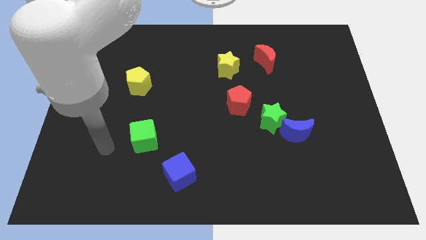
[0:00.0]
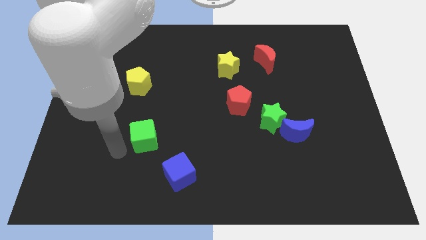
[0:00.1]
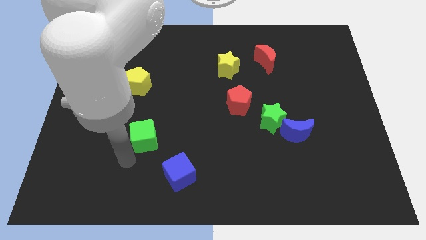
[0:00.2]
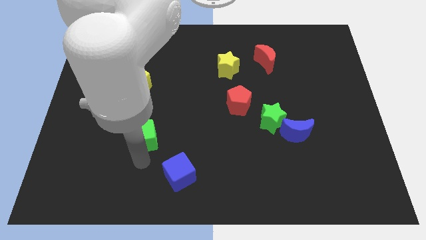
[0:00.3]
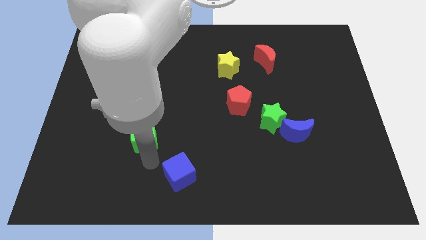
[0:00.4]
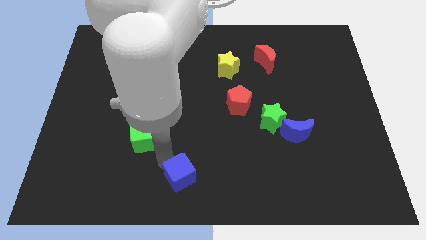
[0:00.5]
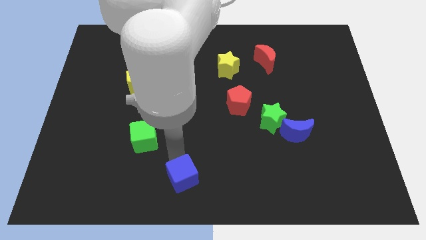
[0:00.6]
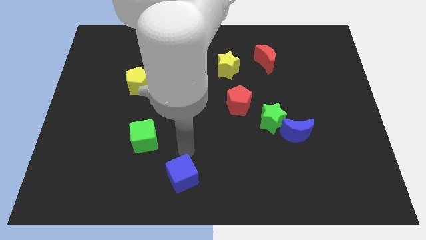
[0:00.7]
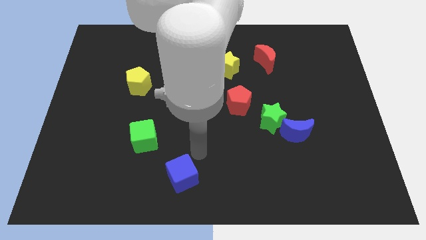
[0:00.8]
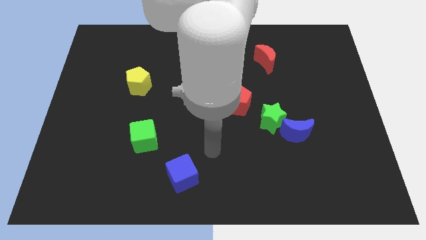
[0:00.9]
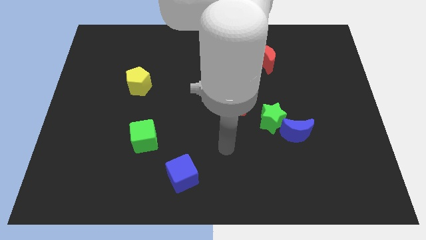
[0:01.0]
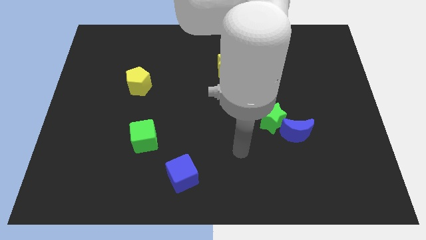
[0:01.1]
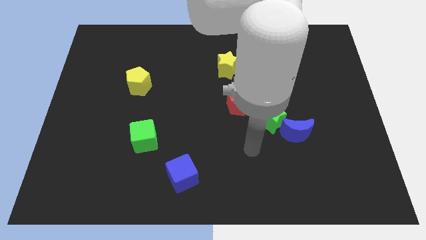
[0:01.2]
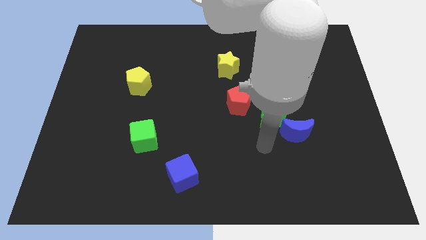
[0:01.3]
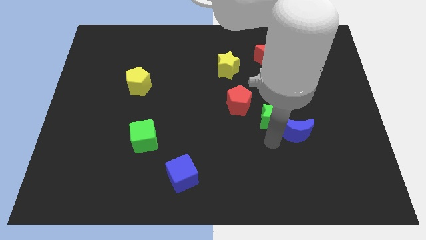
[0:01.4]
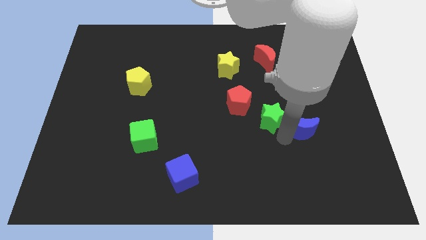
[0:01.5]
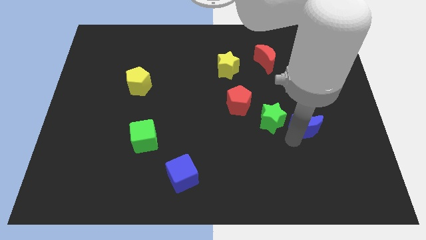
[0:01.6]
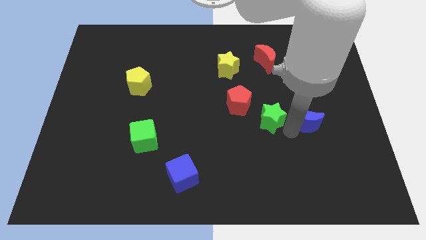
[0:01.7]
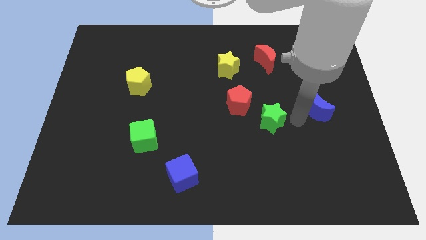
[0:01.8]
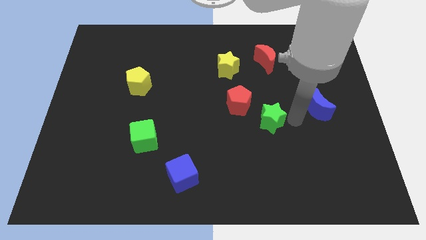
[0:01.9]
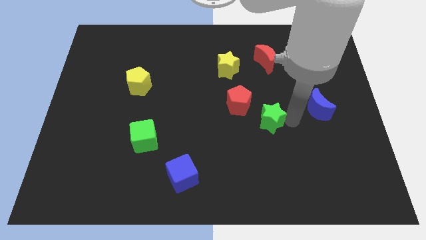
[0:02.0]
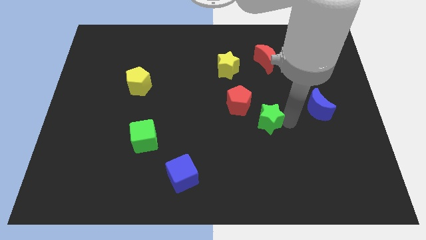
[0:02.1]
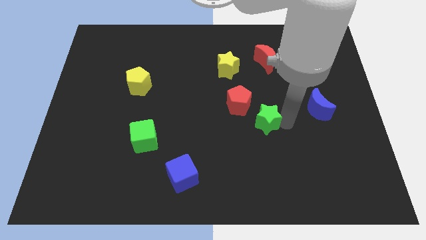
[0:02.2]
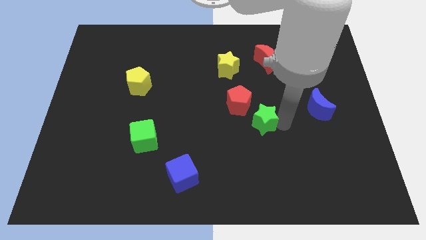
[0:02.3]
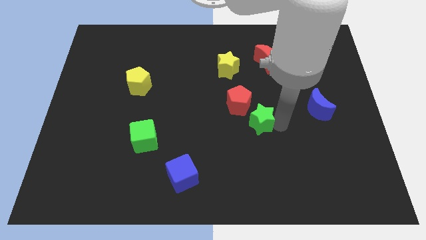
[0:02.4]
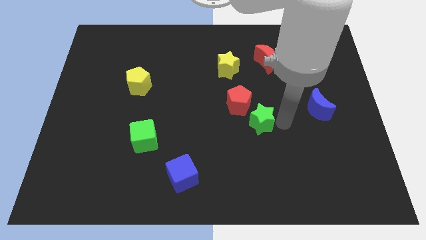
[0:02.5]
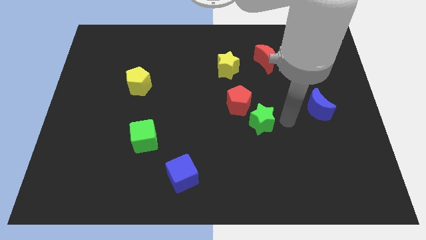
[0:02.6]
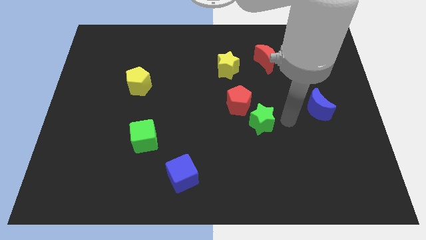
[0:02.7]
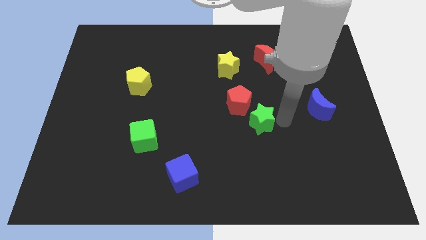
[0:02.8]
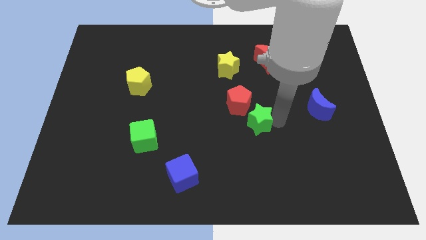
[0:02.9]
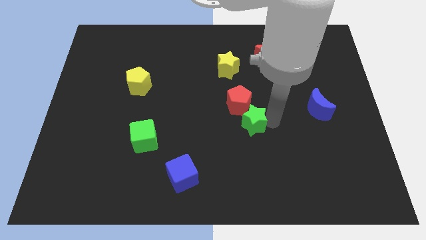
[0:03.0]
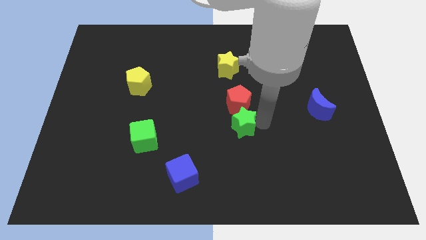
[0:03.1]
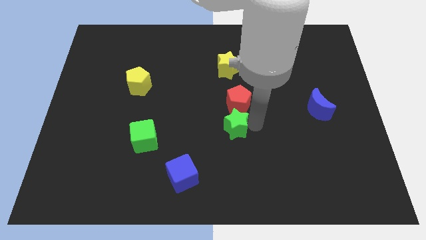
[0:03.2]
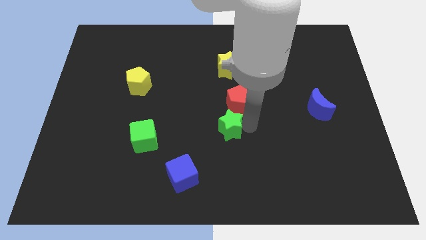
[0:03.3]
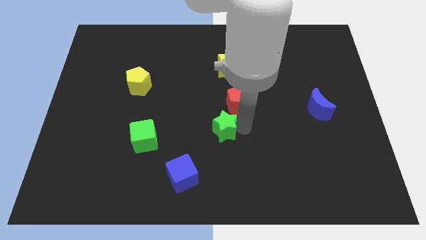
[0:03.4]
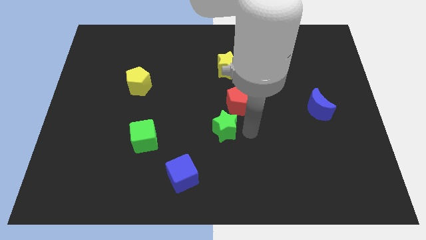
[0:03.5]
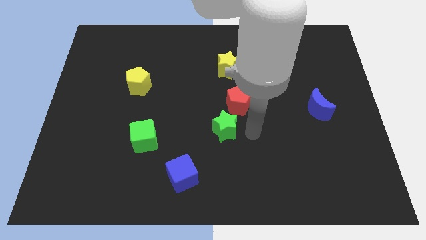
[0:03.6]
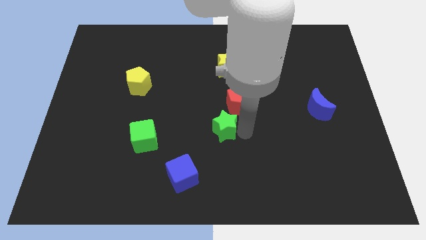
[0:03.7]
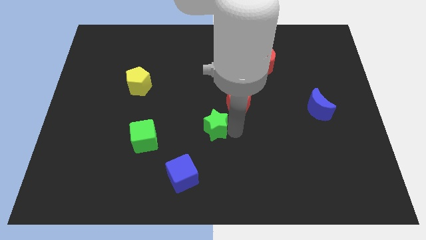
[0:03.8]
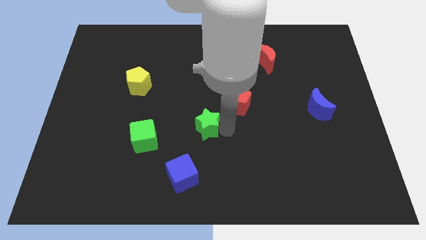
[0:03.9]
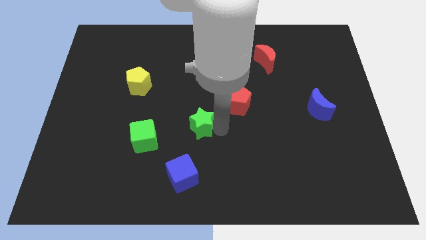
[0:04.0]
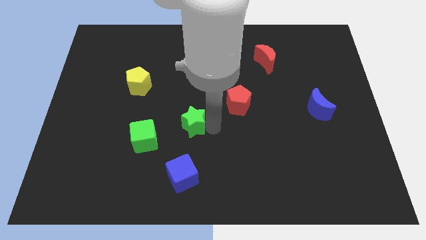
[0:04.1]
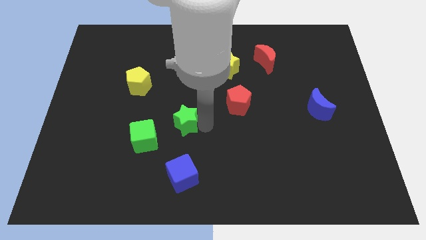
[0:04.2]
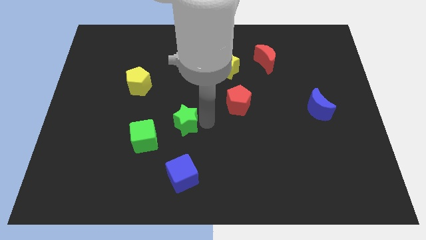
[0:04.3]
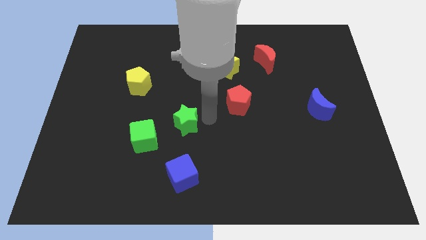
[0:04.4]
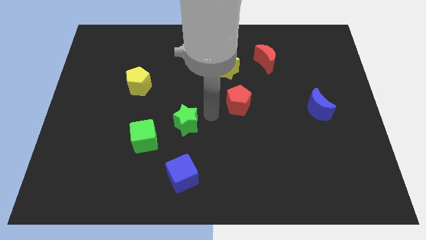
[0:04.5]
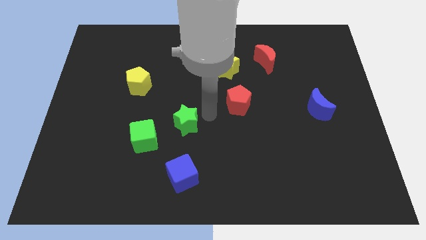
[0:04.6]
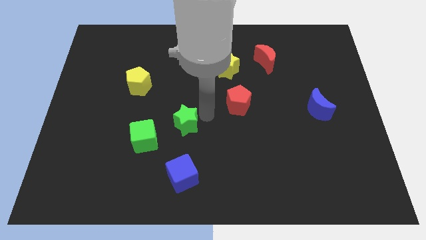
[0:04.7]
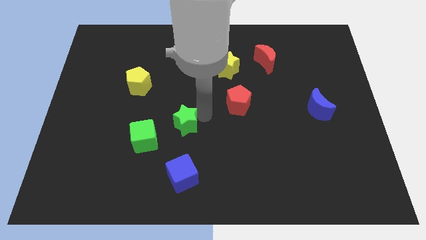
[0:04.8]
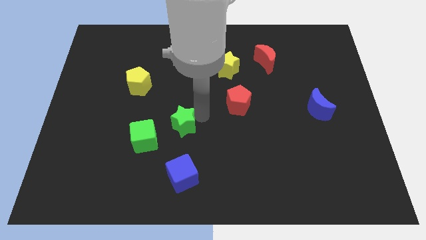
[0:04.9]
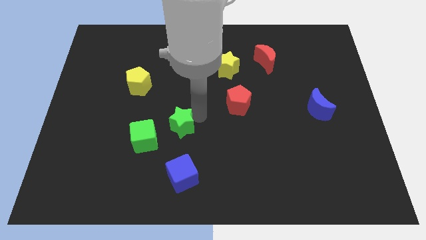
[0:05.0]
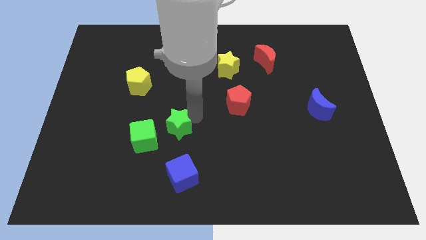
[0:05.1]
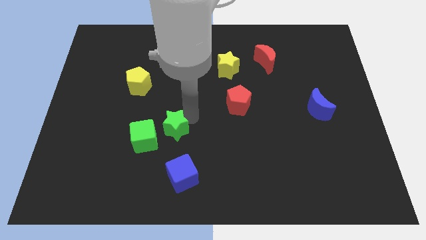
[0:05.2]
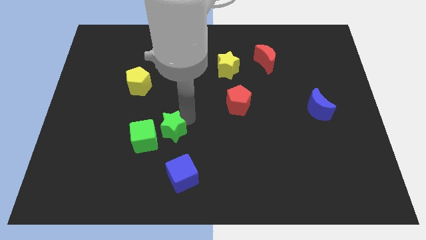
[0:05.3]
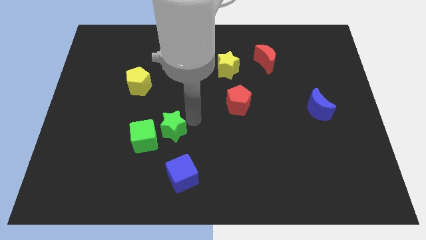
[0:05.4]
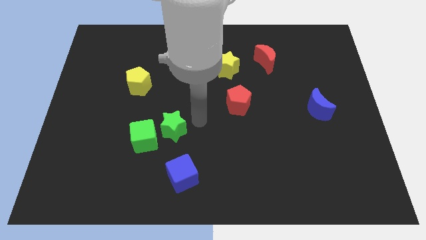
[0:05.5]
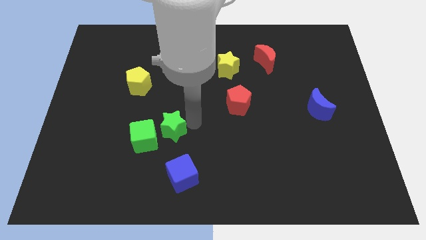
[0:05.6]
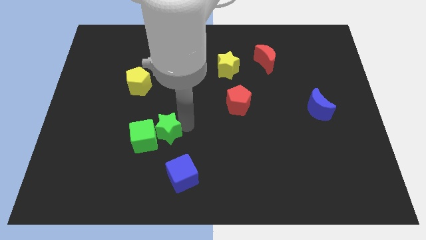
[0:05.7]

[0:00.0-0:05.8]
move the green star next to the green cube

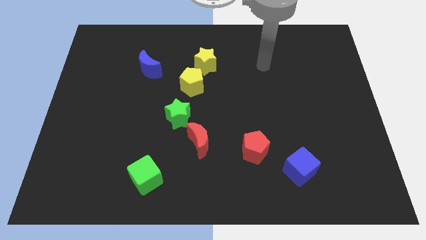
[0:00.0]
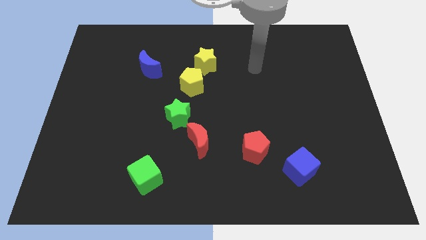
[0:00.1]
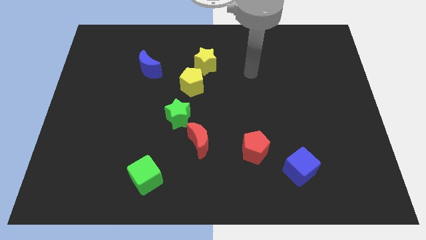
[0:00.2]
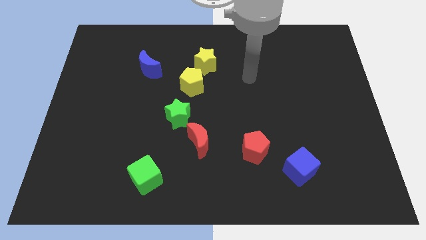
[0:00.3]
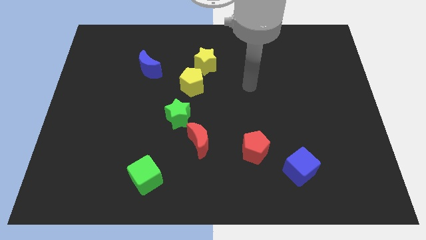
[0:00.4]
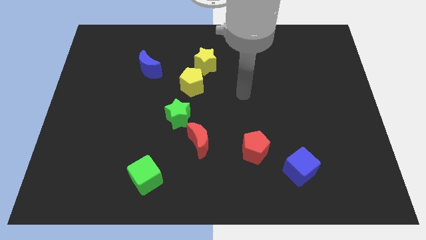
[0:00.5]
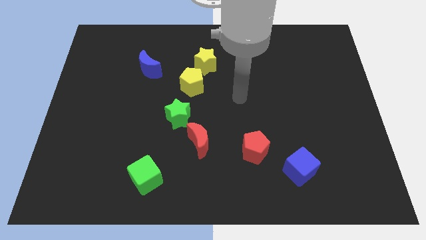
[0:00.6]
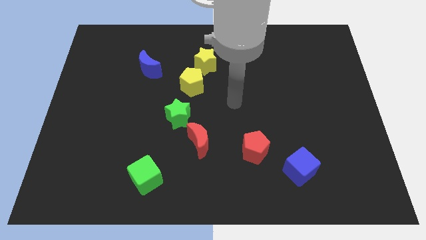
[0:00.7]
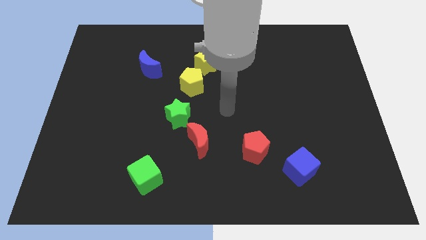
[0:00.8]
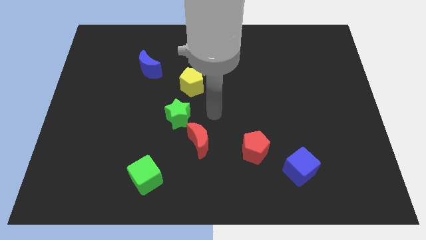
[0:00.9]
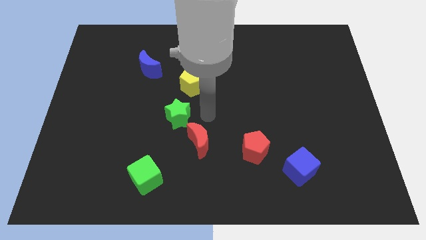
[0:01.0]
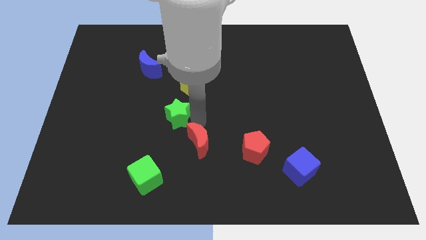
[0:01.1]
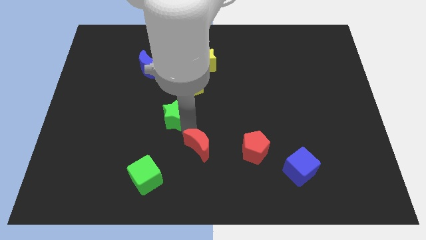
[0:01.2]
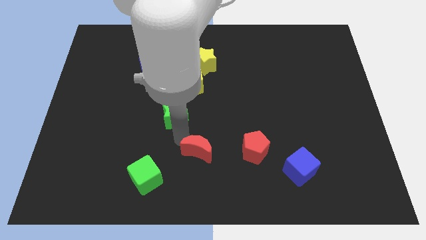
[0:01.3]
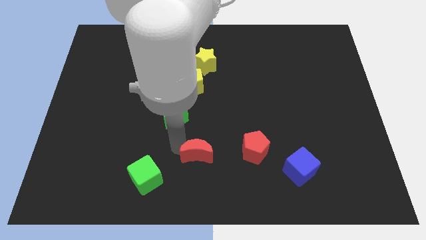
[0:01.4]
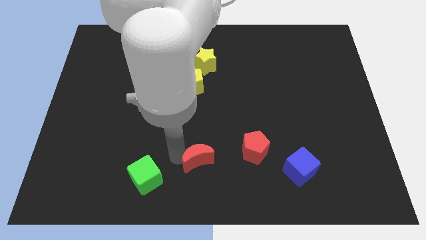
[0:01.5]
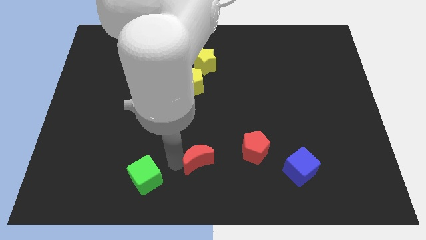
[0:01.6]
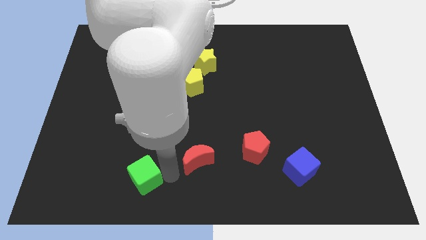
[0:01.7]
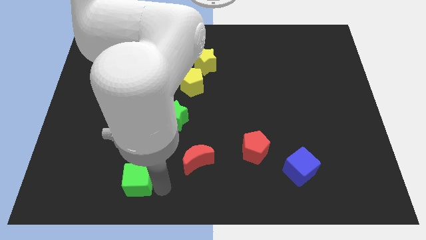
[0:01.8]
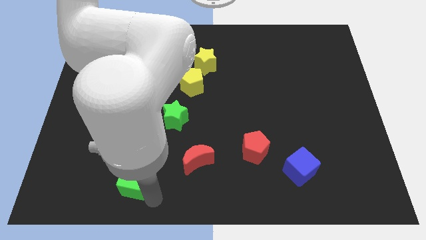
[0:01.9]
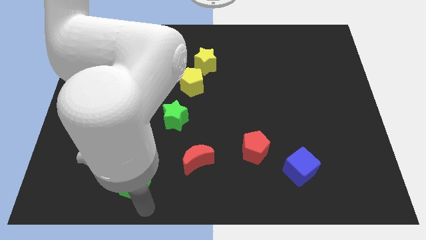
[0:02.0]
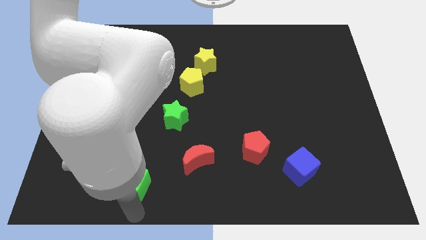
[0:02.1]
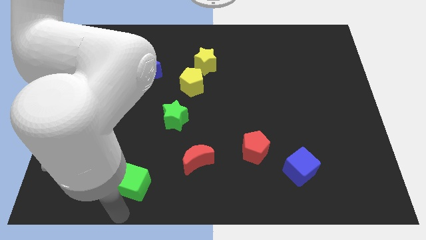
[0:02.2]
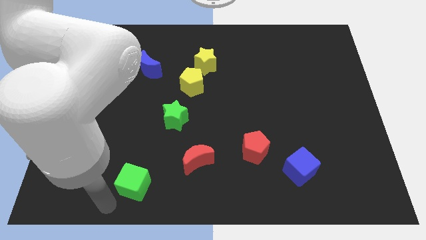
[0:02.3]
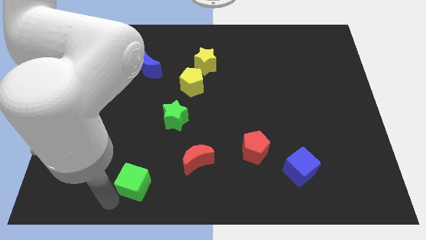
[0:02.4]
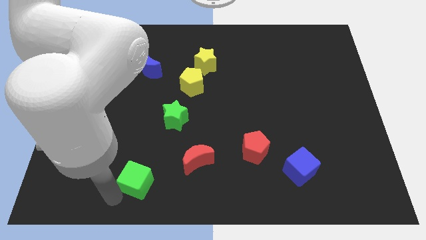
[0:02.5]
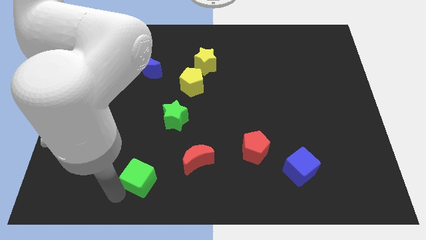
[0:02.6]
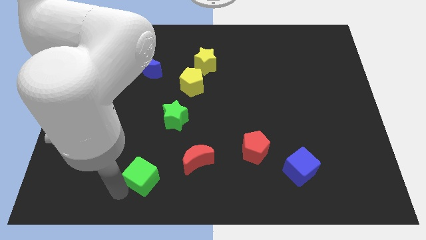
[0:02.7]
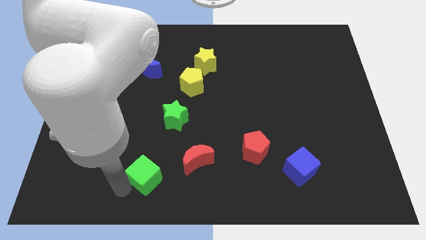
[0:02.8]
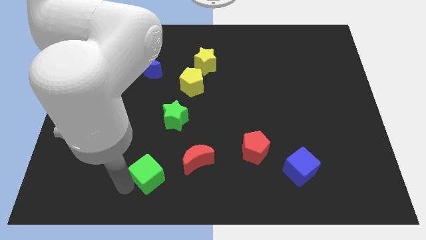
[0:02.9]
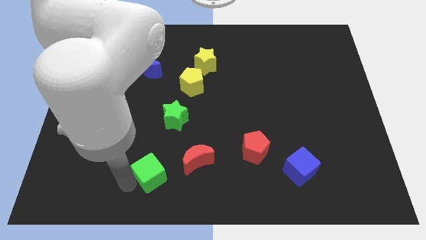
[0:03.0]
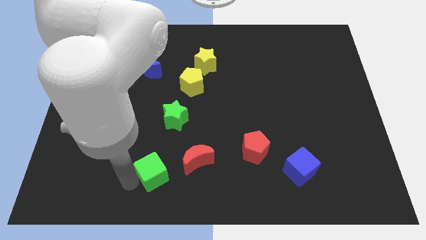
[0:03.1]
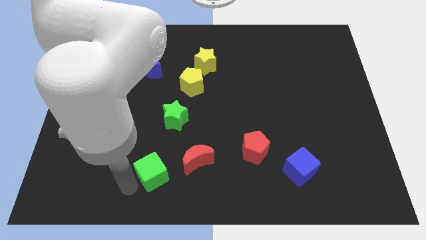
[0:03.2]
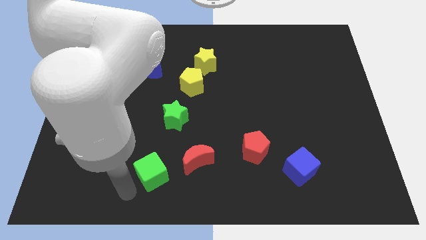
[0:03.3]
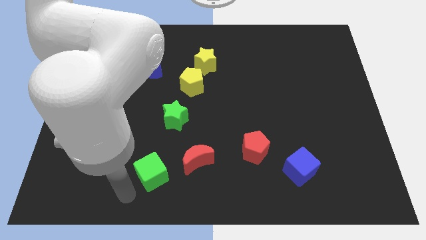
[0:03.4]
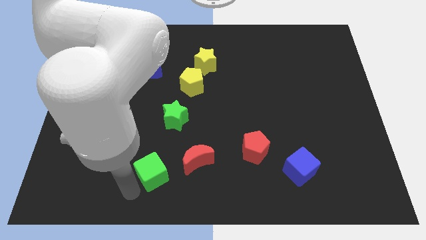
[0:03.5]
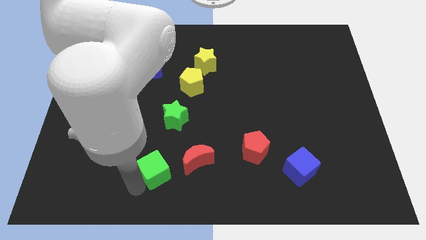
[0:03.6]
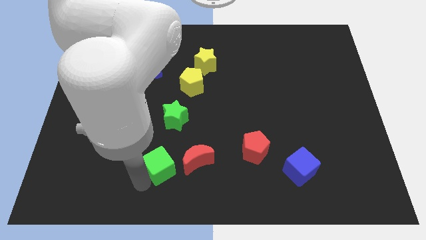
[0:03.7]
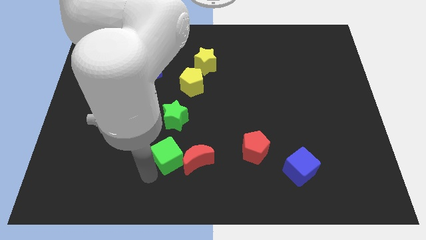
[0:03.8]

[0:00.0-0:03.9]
push the green cube next to the red moon
